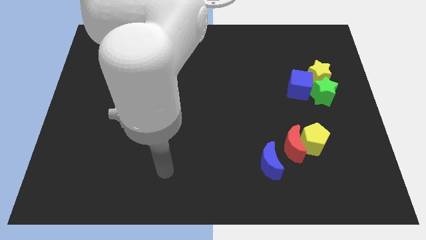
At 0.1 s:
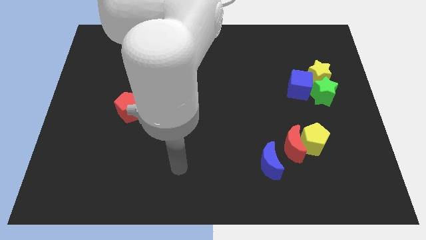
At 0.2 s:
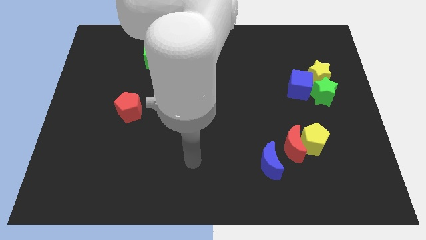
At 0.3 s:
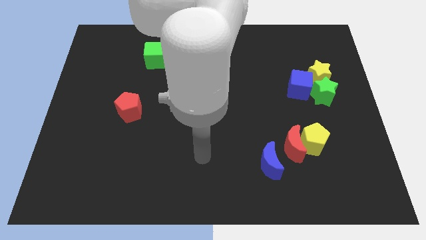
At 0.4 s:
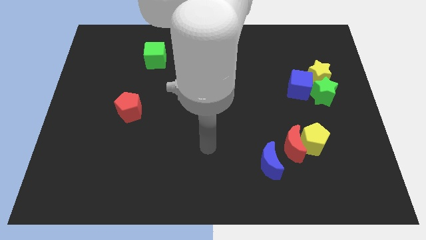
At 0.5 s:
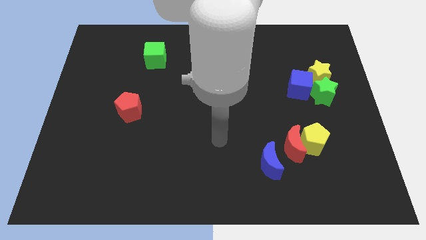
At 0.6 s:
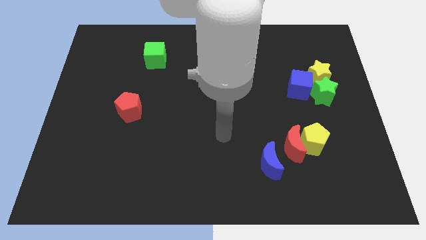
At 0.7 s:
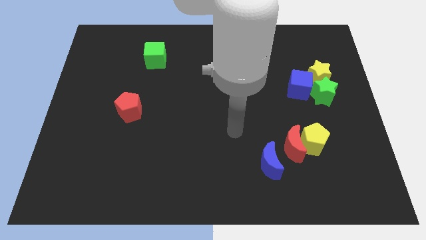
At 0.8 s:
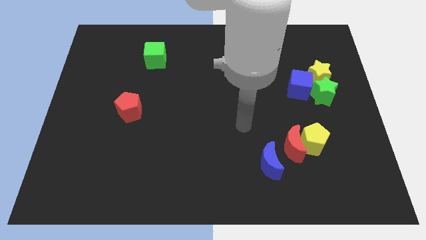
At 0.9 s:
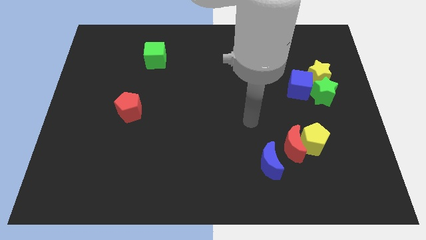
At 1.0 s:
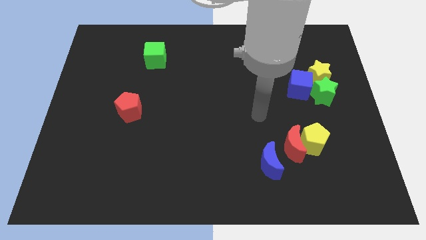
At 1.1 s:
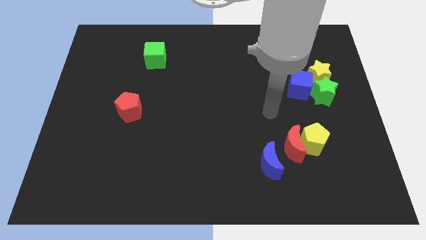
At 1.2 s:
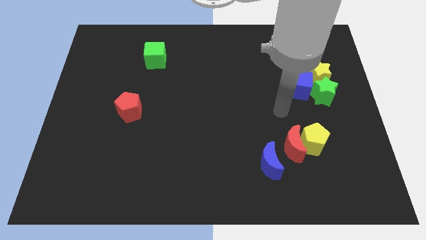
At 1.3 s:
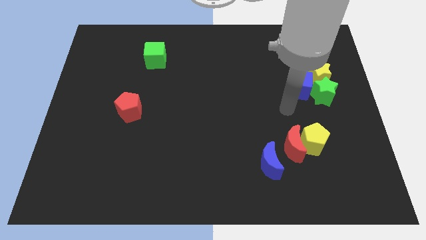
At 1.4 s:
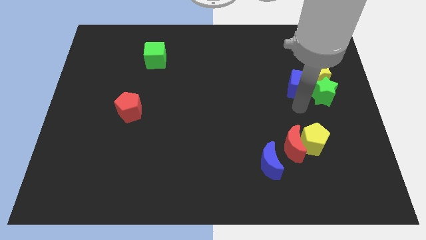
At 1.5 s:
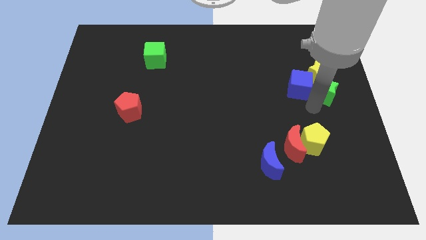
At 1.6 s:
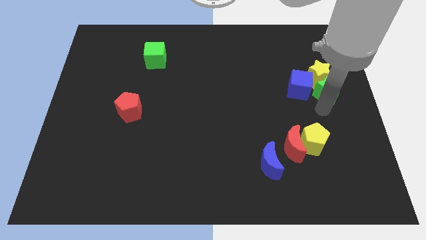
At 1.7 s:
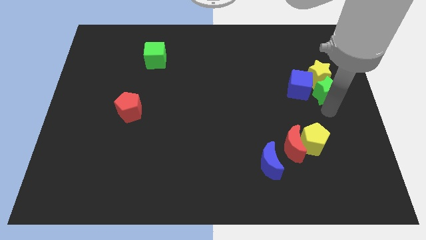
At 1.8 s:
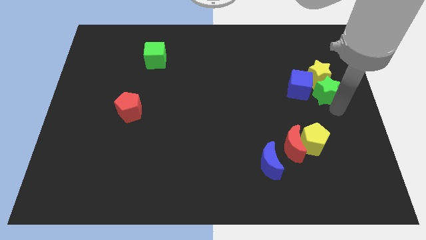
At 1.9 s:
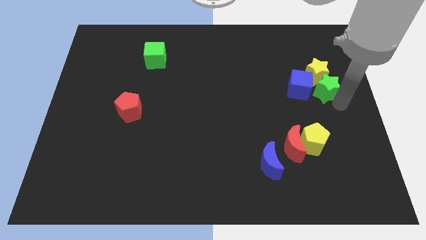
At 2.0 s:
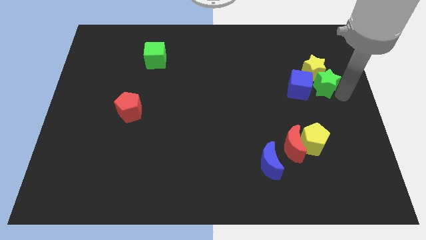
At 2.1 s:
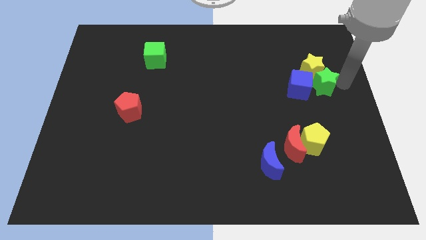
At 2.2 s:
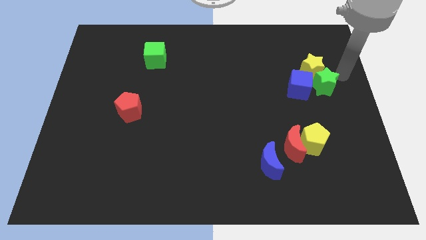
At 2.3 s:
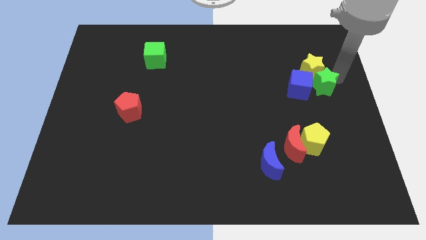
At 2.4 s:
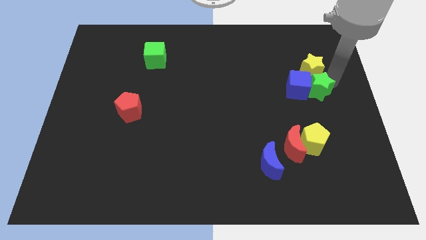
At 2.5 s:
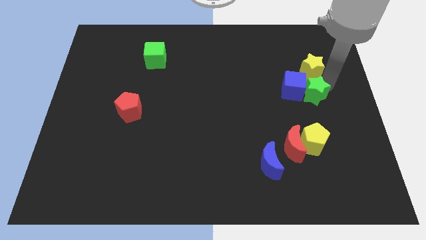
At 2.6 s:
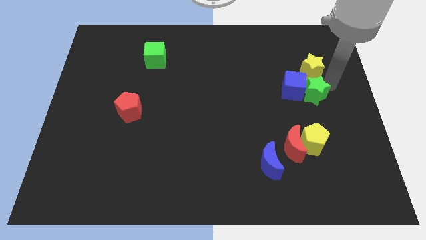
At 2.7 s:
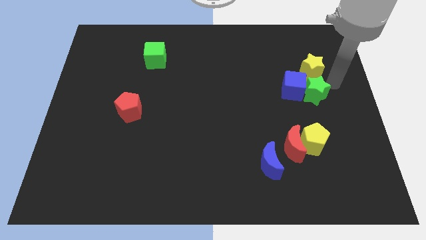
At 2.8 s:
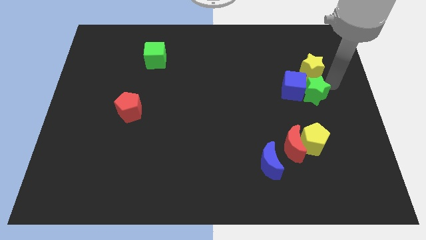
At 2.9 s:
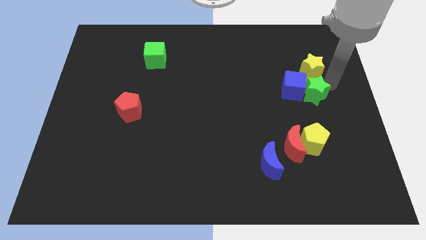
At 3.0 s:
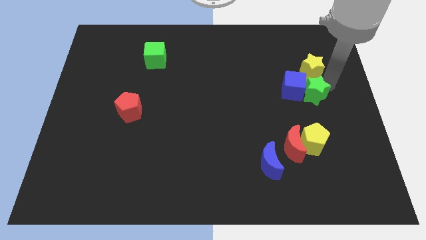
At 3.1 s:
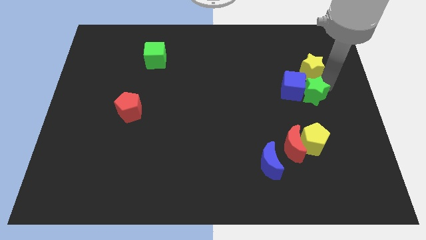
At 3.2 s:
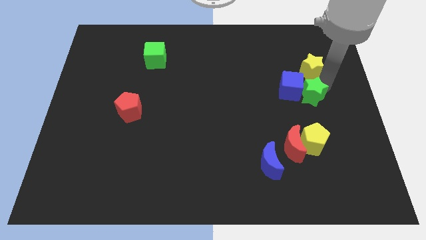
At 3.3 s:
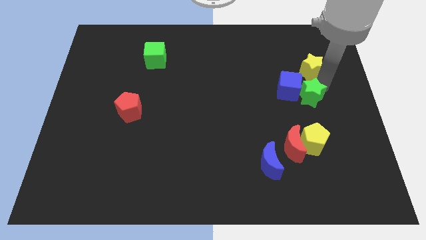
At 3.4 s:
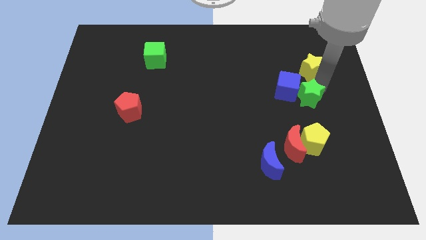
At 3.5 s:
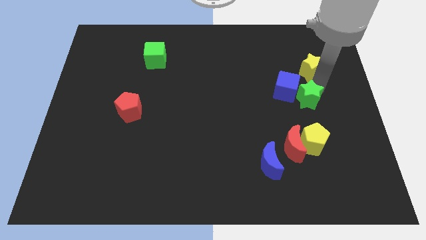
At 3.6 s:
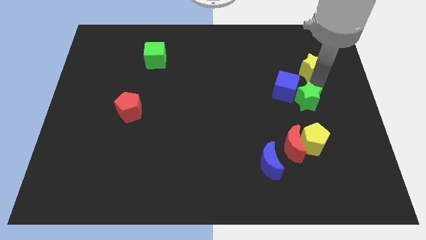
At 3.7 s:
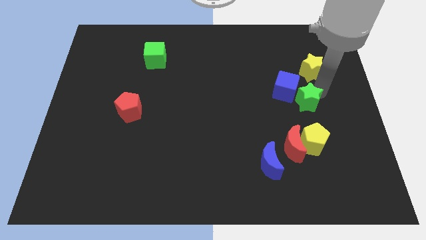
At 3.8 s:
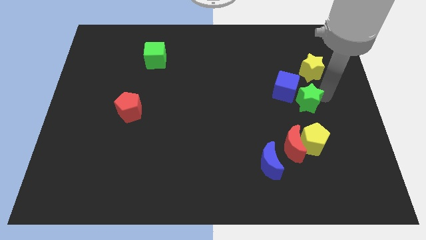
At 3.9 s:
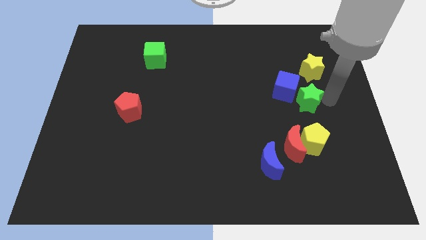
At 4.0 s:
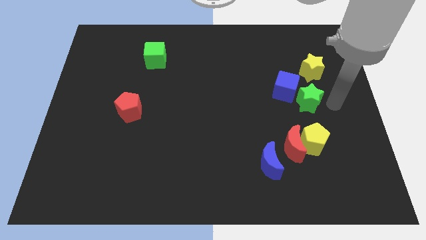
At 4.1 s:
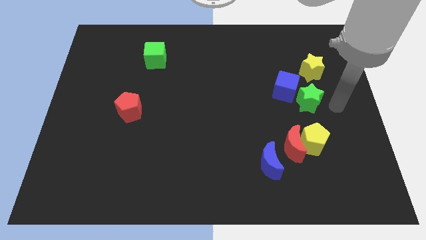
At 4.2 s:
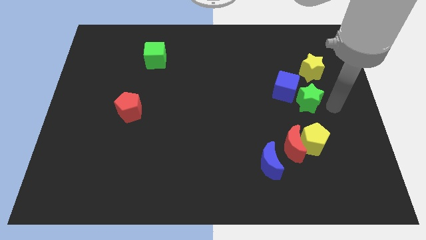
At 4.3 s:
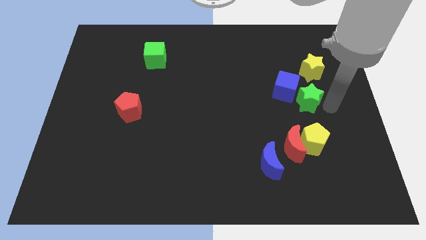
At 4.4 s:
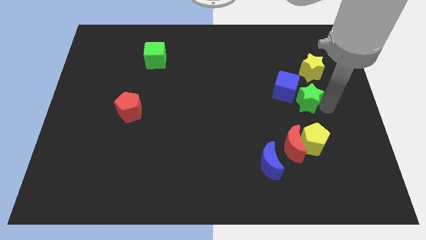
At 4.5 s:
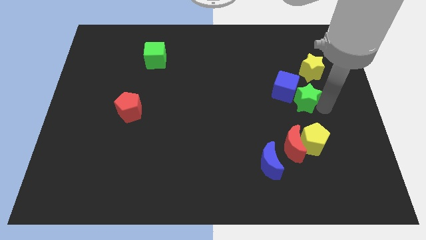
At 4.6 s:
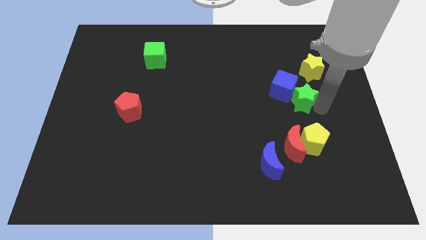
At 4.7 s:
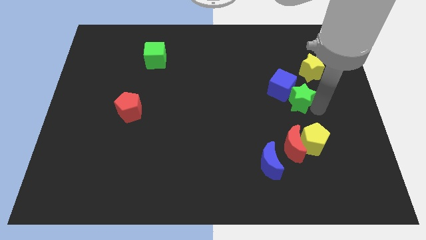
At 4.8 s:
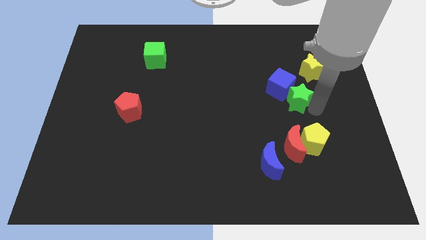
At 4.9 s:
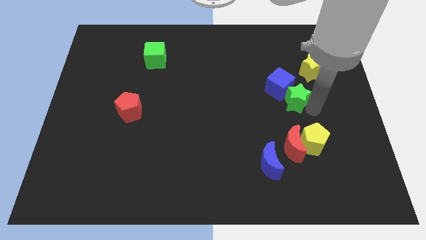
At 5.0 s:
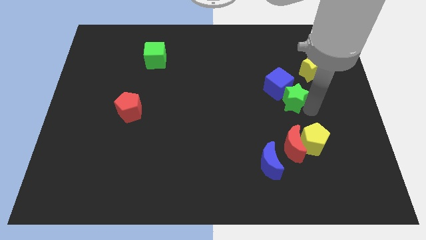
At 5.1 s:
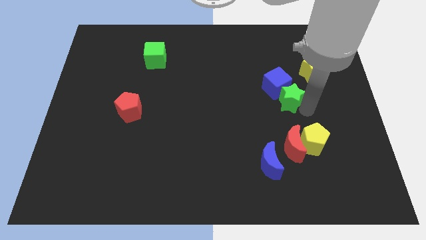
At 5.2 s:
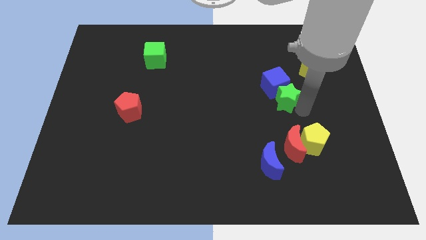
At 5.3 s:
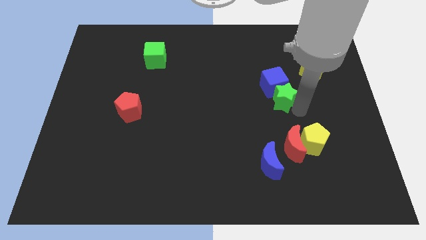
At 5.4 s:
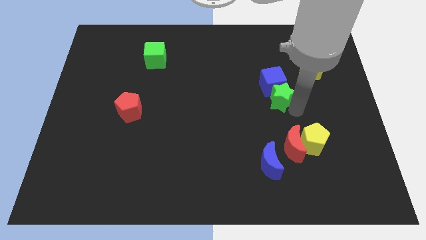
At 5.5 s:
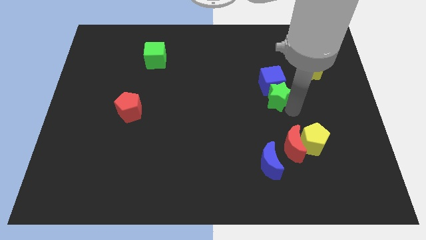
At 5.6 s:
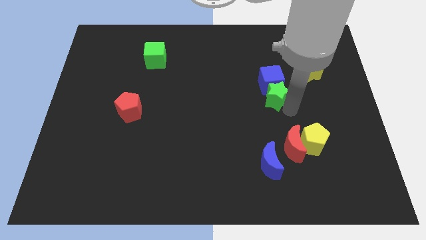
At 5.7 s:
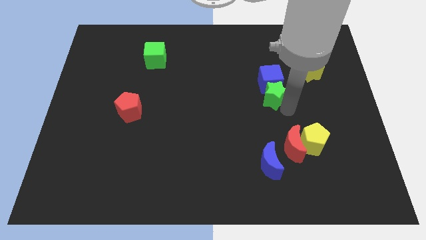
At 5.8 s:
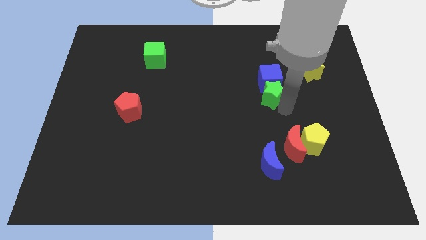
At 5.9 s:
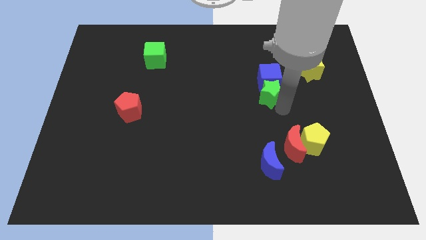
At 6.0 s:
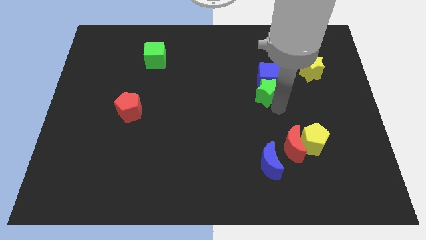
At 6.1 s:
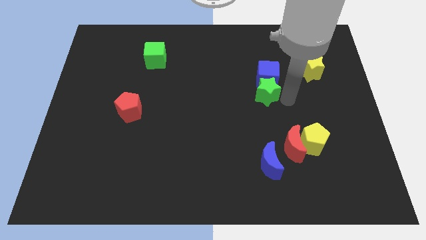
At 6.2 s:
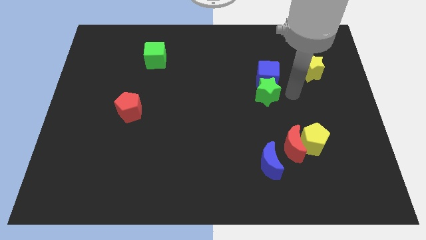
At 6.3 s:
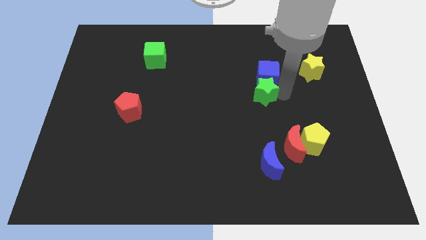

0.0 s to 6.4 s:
slide the green star to the center

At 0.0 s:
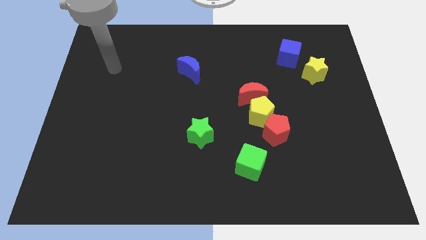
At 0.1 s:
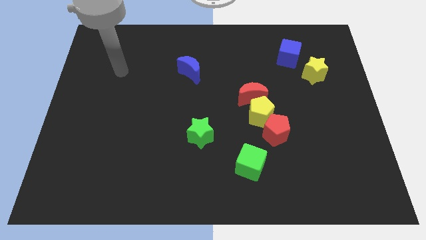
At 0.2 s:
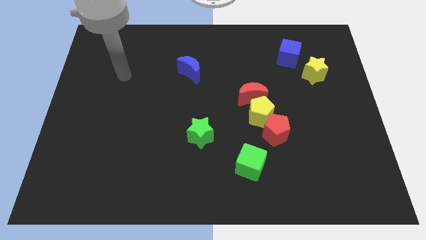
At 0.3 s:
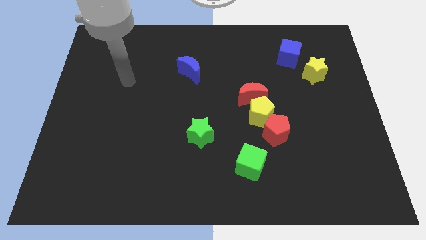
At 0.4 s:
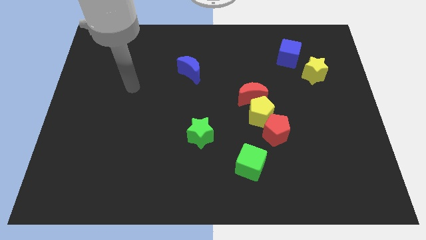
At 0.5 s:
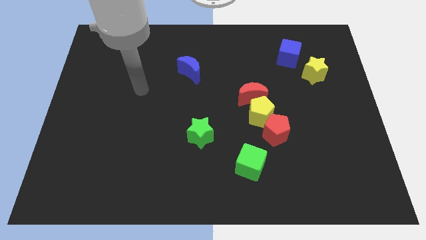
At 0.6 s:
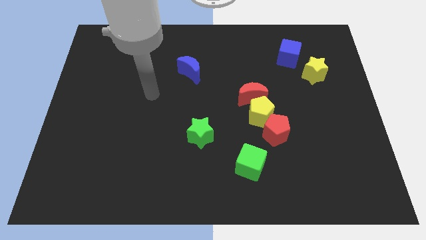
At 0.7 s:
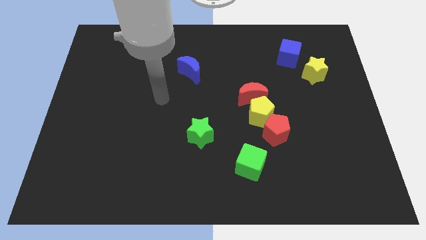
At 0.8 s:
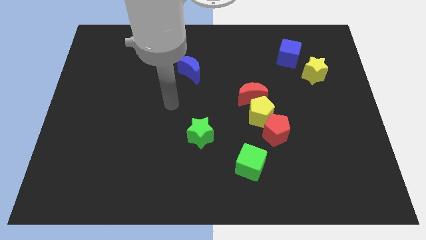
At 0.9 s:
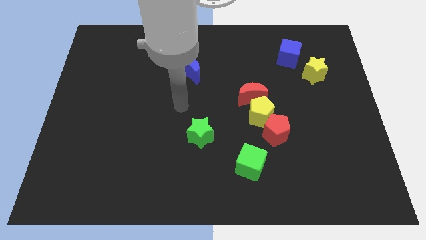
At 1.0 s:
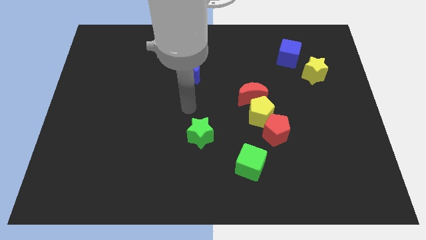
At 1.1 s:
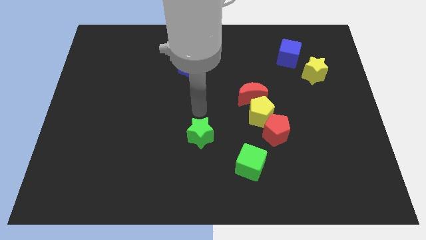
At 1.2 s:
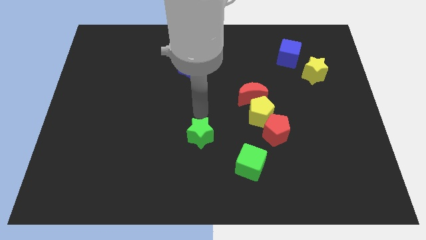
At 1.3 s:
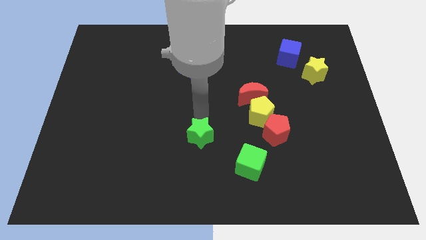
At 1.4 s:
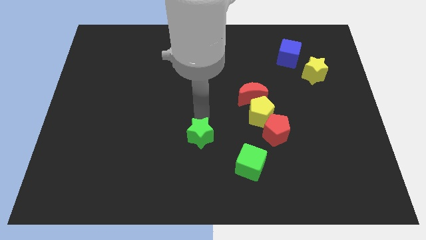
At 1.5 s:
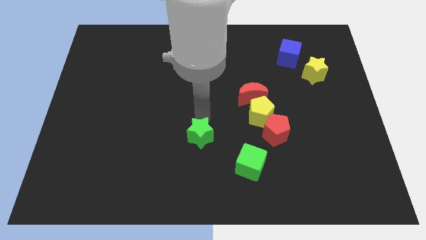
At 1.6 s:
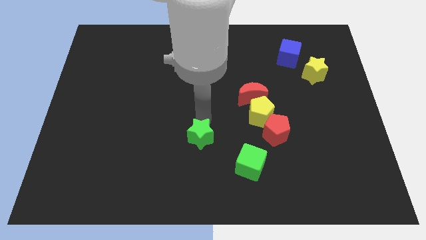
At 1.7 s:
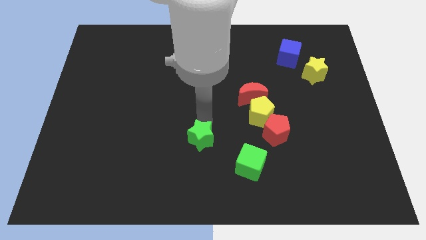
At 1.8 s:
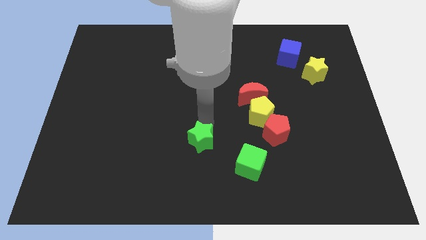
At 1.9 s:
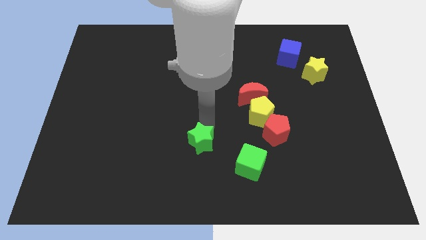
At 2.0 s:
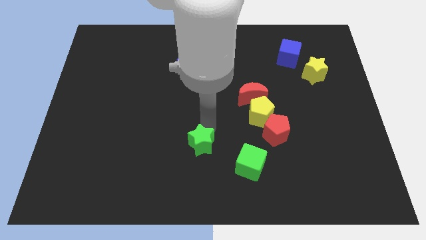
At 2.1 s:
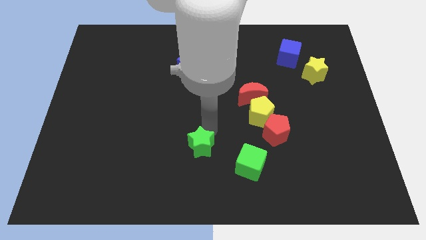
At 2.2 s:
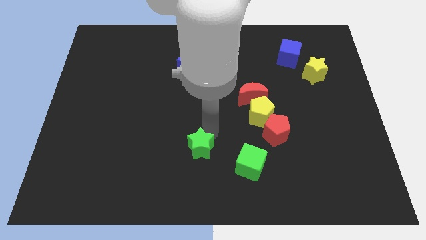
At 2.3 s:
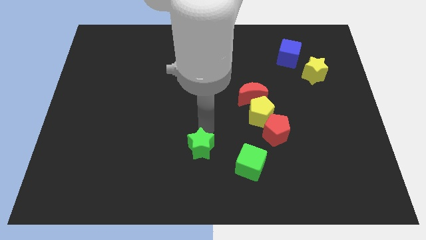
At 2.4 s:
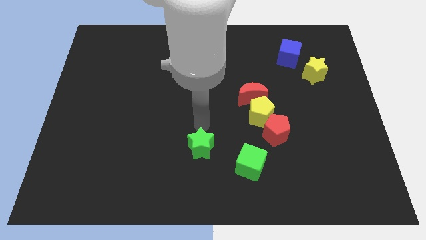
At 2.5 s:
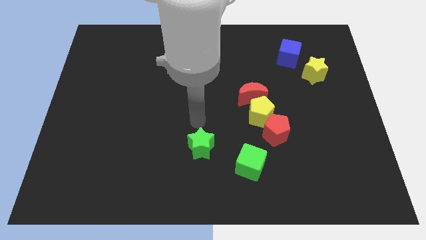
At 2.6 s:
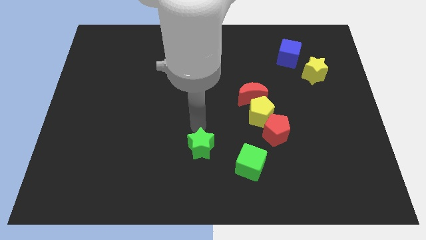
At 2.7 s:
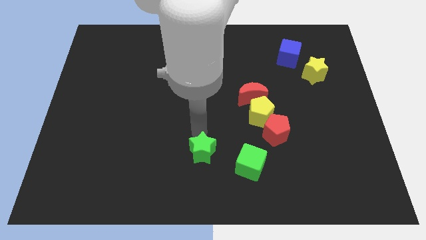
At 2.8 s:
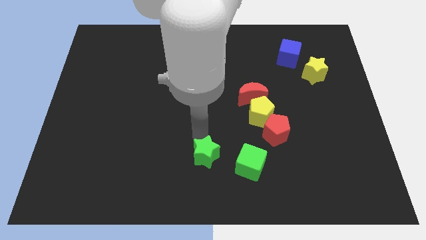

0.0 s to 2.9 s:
move the green star to the bottom
